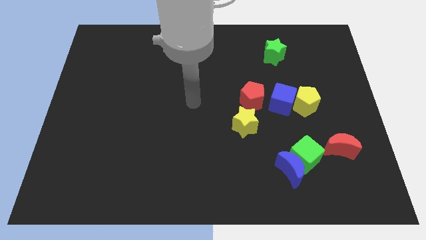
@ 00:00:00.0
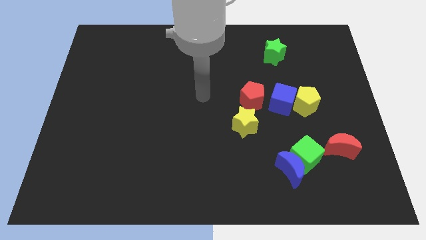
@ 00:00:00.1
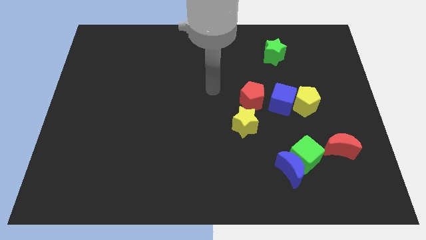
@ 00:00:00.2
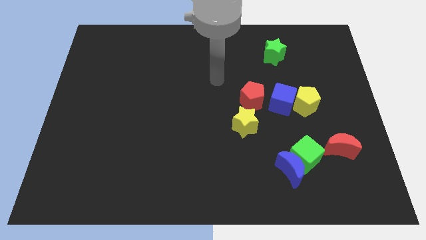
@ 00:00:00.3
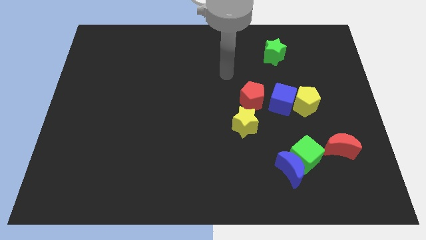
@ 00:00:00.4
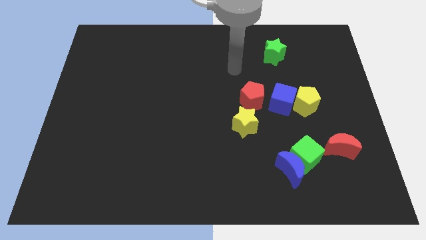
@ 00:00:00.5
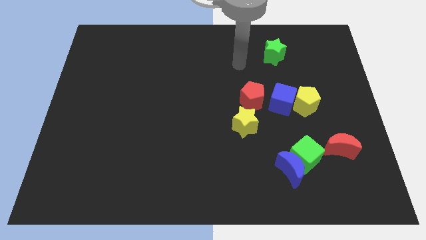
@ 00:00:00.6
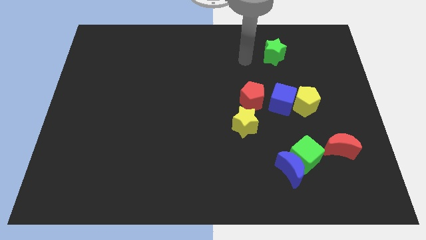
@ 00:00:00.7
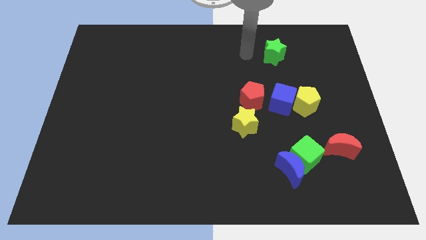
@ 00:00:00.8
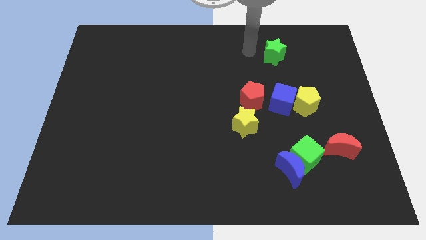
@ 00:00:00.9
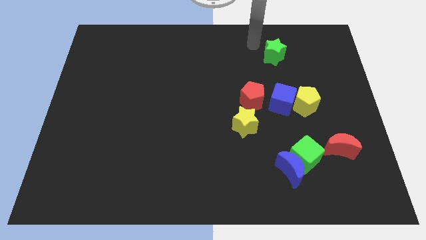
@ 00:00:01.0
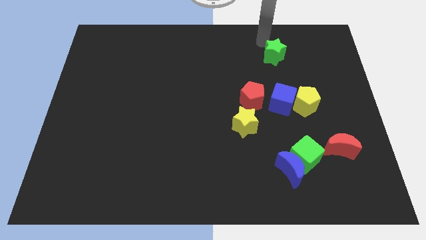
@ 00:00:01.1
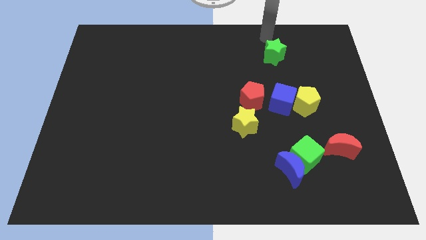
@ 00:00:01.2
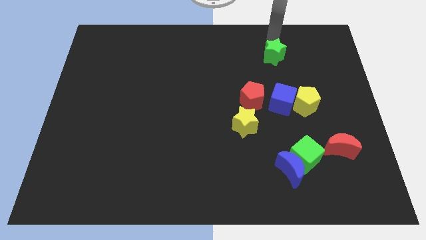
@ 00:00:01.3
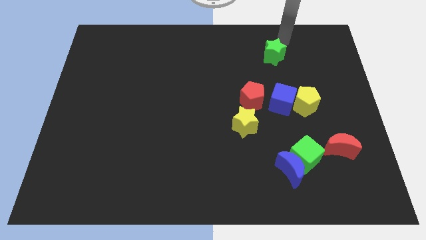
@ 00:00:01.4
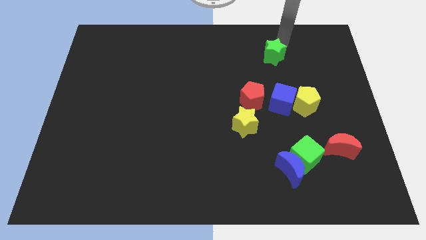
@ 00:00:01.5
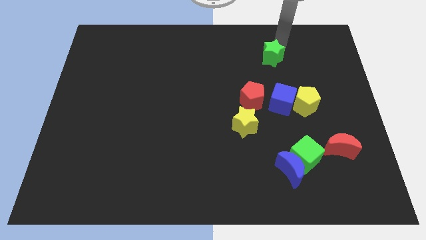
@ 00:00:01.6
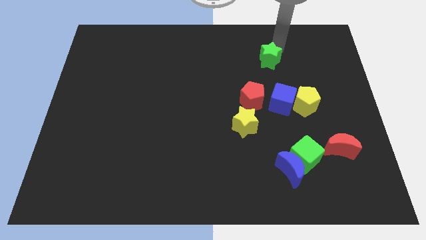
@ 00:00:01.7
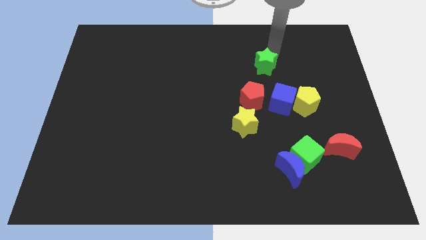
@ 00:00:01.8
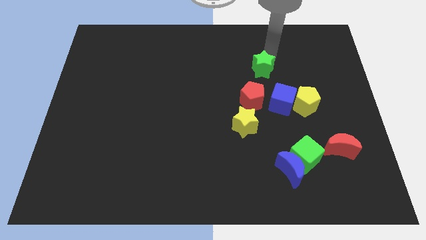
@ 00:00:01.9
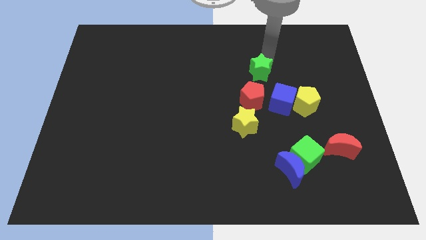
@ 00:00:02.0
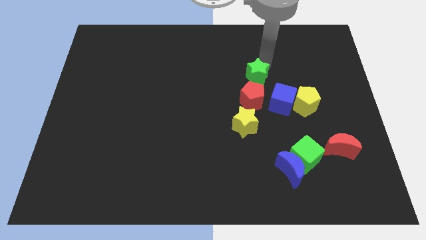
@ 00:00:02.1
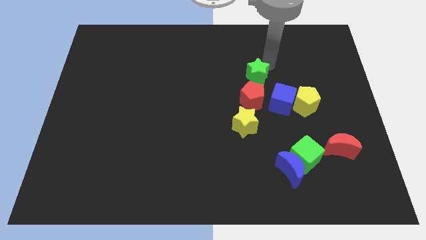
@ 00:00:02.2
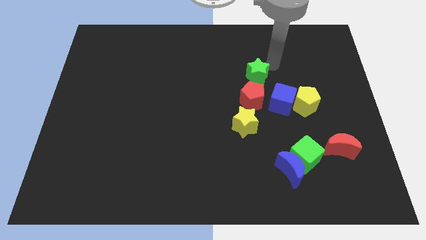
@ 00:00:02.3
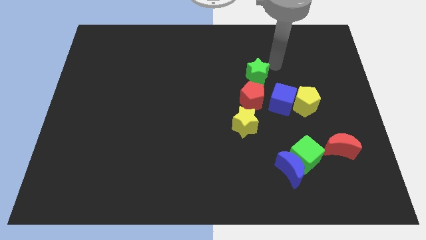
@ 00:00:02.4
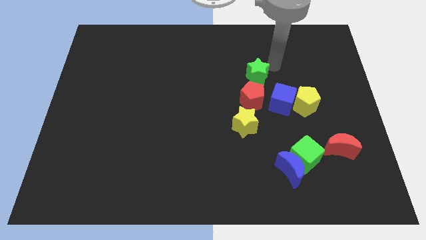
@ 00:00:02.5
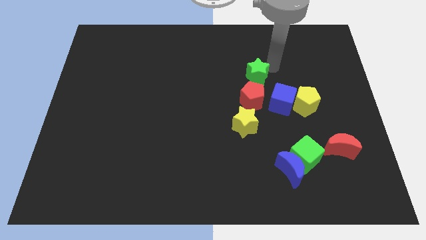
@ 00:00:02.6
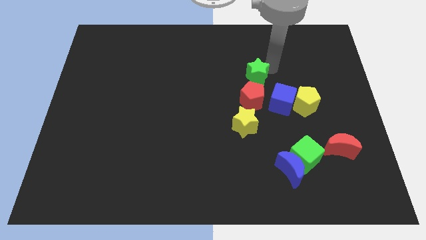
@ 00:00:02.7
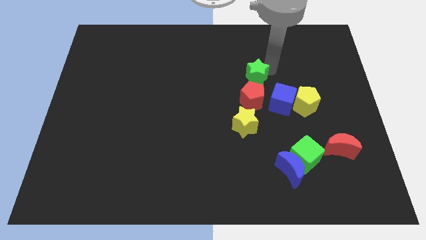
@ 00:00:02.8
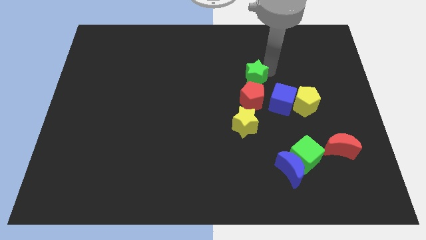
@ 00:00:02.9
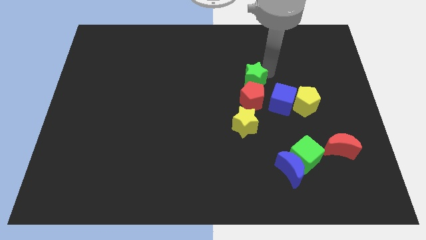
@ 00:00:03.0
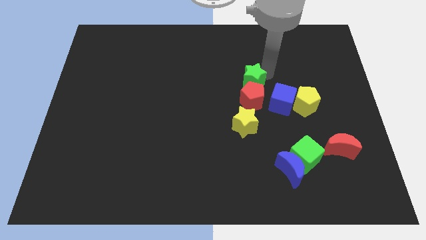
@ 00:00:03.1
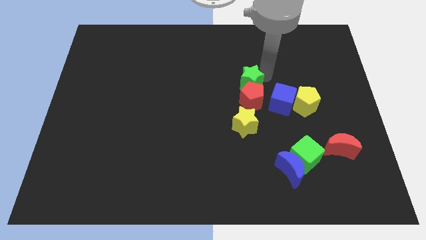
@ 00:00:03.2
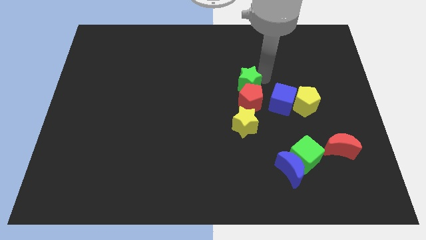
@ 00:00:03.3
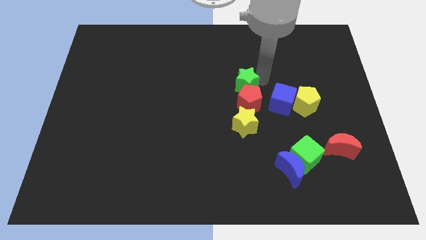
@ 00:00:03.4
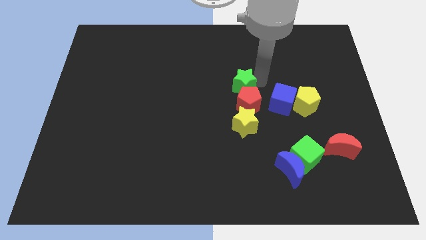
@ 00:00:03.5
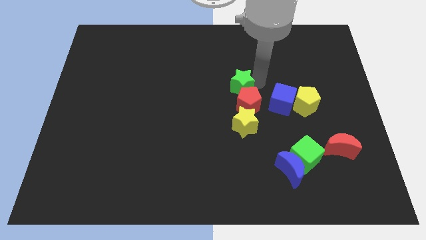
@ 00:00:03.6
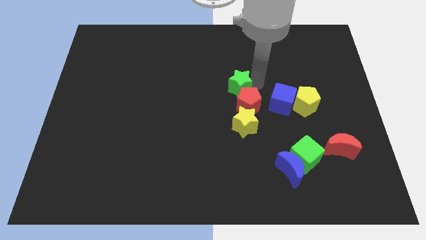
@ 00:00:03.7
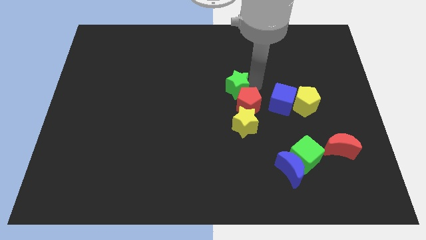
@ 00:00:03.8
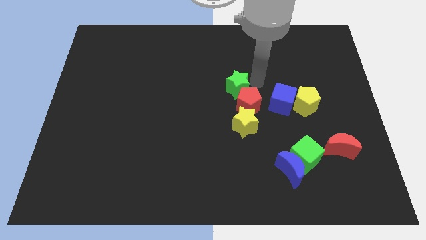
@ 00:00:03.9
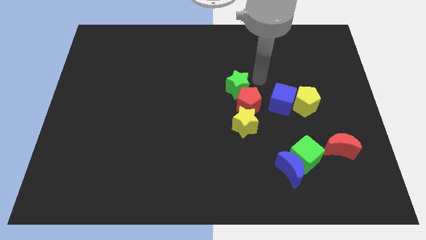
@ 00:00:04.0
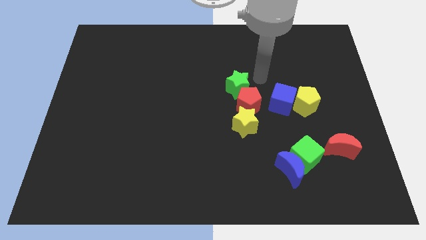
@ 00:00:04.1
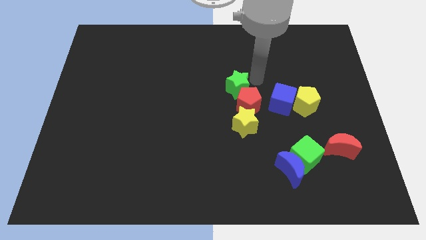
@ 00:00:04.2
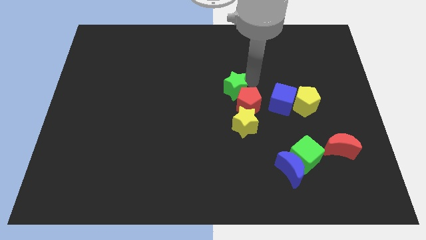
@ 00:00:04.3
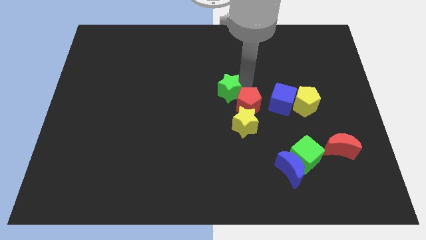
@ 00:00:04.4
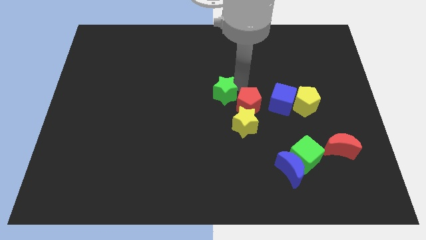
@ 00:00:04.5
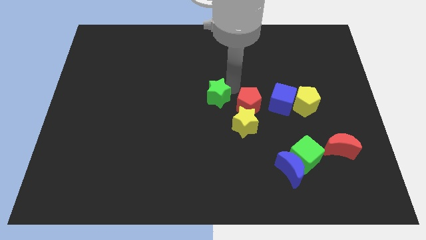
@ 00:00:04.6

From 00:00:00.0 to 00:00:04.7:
move the green star down and to the left

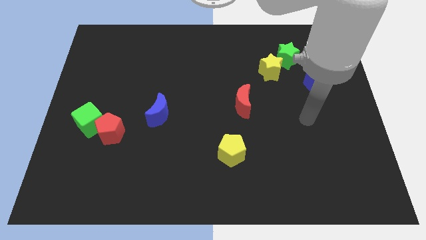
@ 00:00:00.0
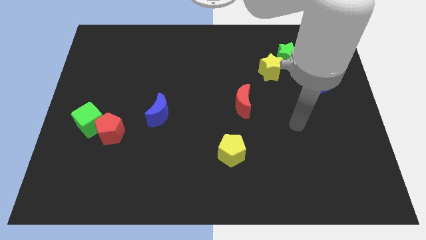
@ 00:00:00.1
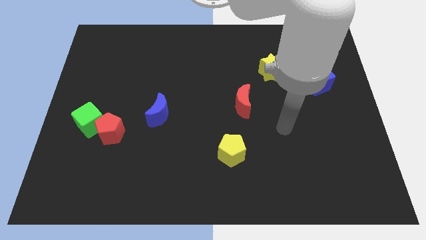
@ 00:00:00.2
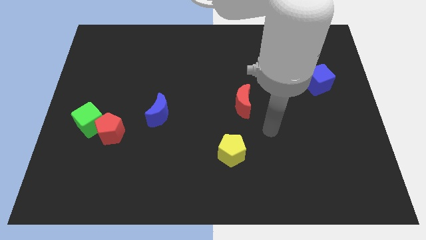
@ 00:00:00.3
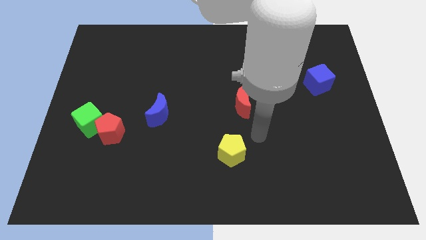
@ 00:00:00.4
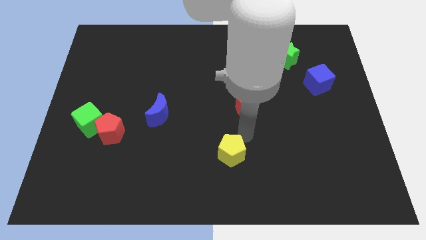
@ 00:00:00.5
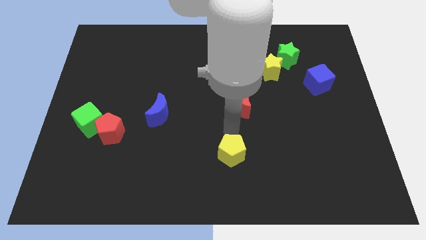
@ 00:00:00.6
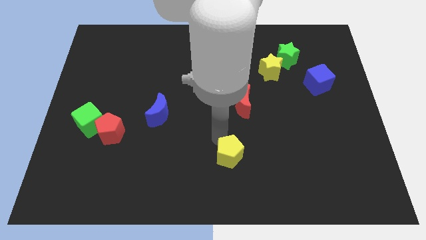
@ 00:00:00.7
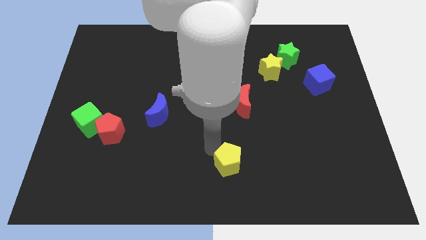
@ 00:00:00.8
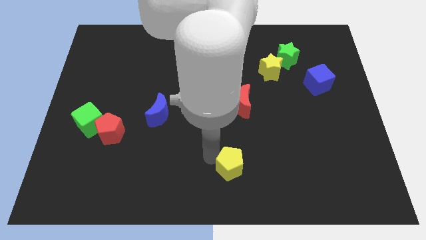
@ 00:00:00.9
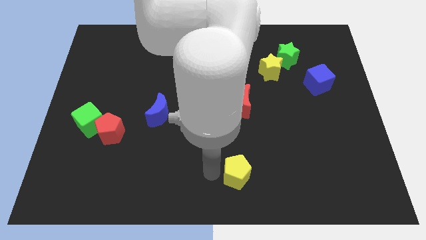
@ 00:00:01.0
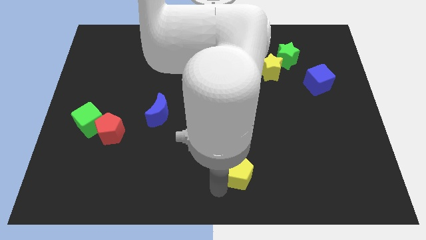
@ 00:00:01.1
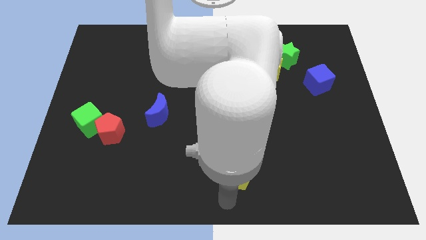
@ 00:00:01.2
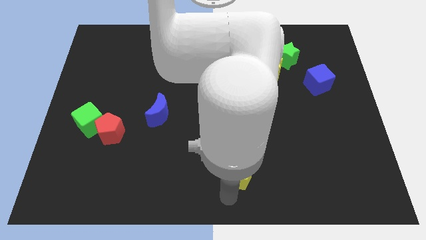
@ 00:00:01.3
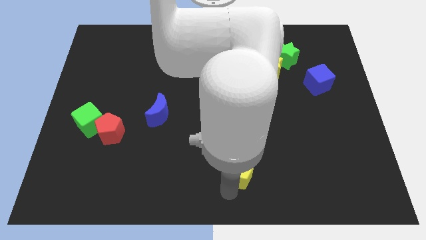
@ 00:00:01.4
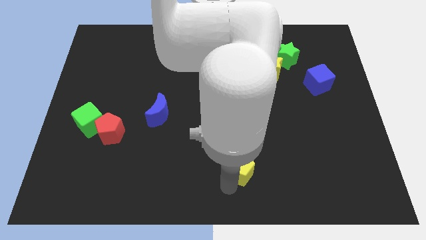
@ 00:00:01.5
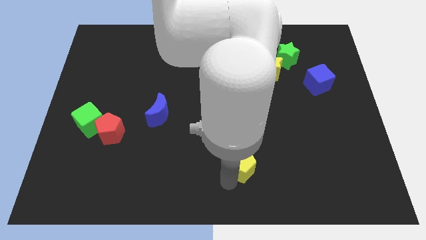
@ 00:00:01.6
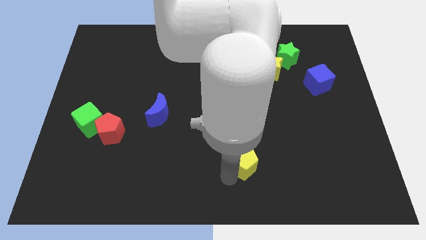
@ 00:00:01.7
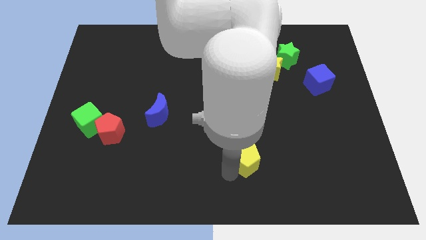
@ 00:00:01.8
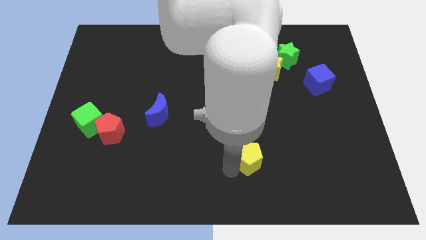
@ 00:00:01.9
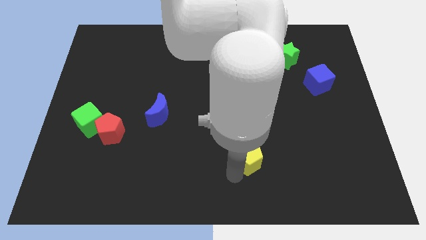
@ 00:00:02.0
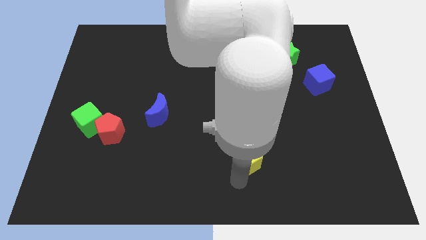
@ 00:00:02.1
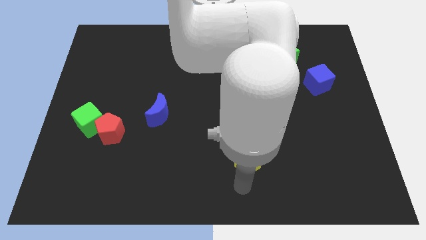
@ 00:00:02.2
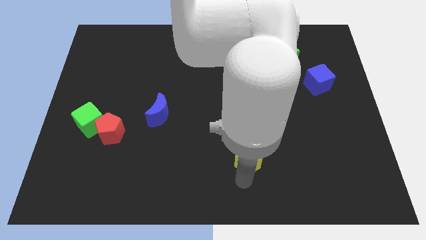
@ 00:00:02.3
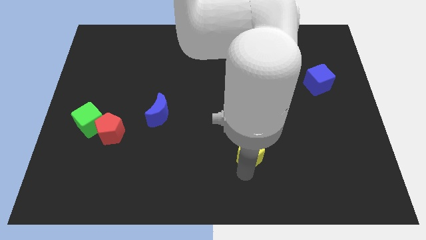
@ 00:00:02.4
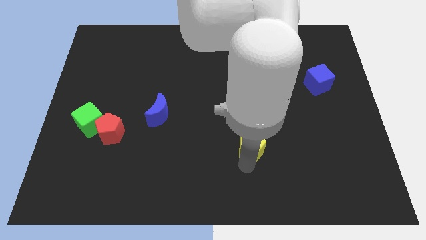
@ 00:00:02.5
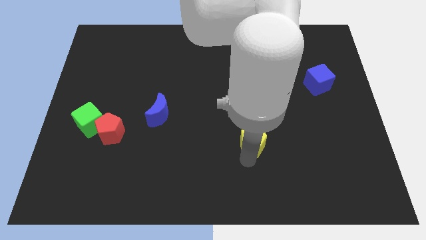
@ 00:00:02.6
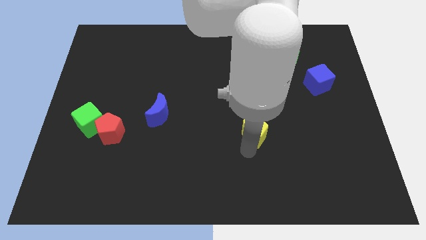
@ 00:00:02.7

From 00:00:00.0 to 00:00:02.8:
slightly slide the yellow pentagon up and right

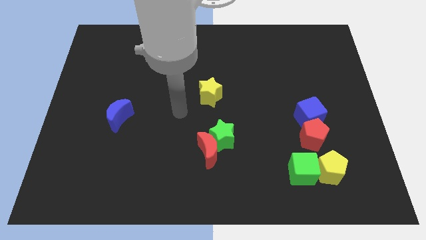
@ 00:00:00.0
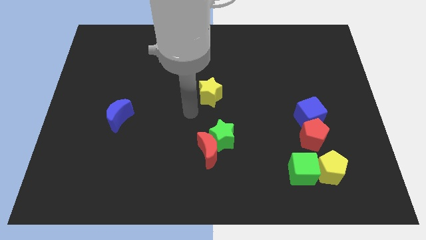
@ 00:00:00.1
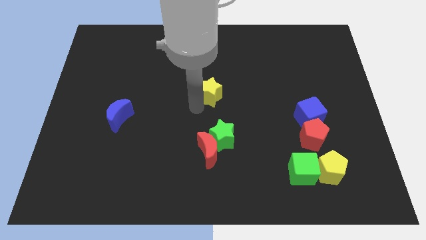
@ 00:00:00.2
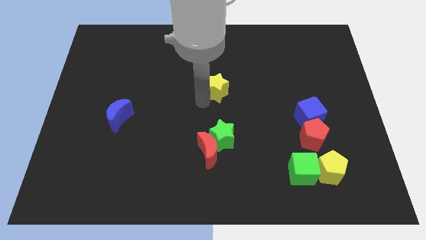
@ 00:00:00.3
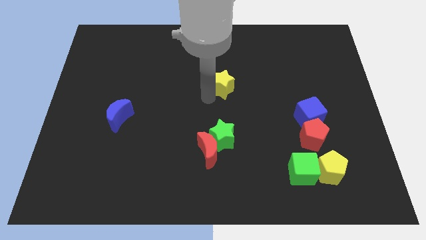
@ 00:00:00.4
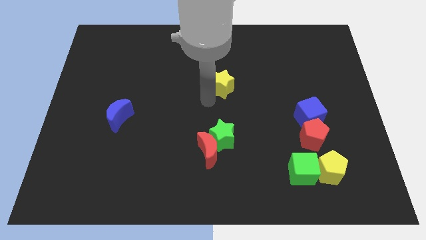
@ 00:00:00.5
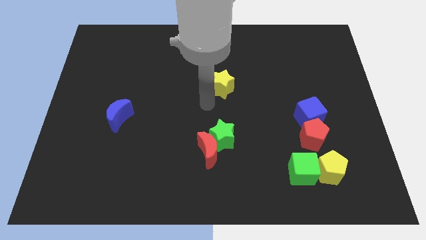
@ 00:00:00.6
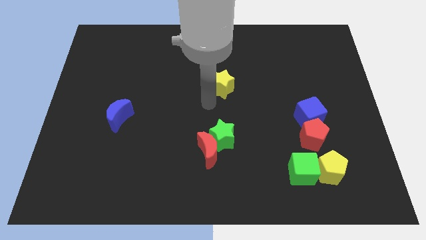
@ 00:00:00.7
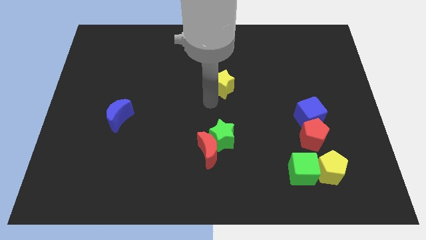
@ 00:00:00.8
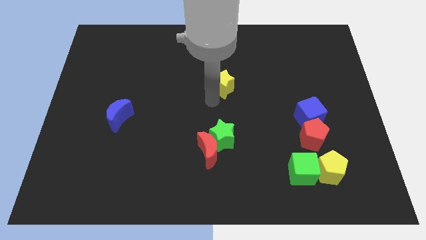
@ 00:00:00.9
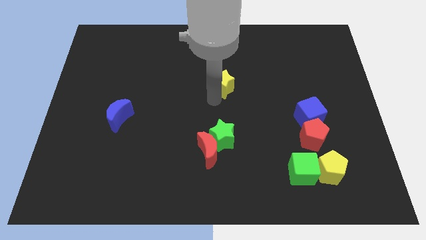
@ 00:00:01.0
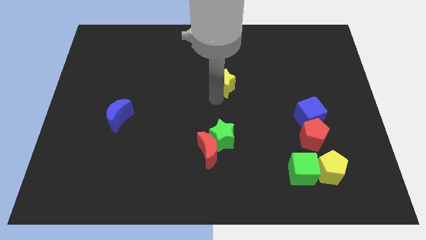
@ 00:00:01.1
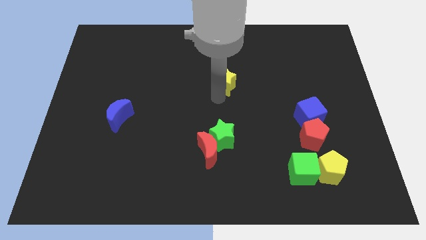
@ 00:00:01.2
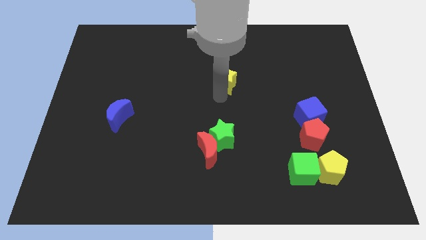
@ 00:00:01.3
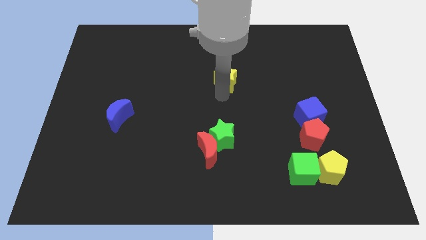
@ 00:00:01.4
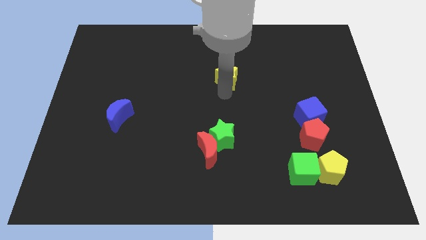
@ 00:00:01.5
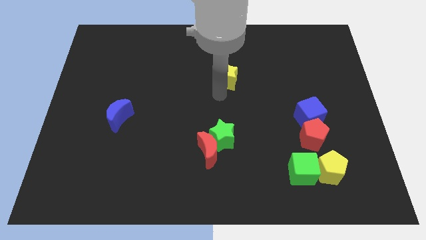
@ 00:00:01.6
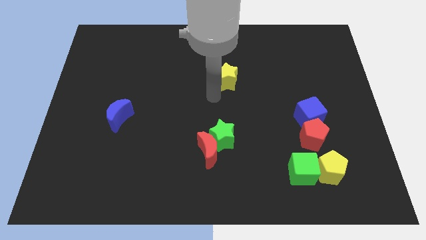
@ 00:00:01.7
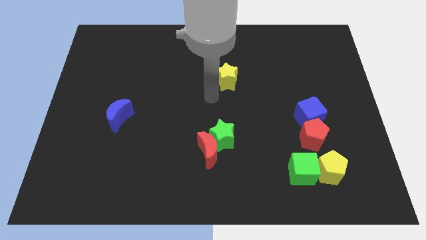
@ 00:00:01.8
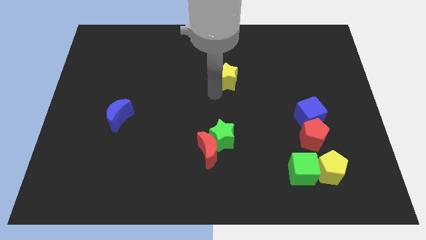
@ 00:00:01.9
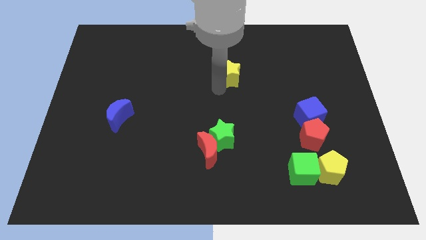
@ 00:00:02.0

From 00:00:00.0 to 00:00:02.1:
slide the yellow star diagonally upwards and right a bit
